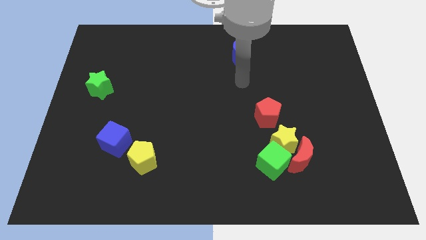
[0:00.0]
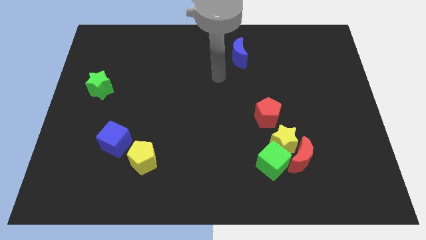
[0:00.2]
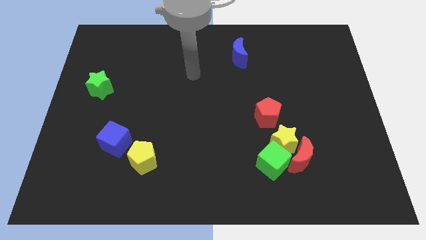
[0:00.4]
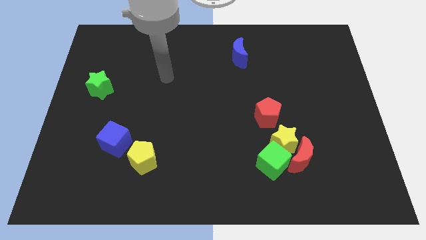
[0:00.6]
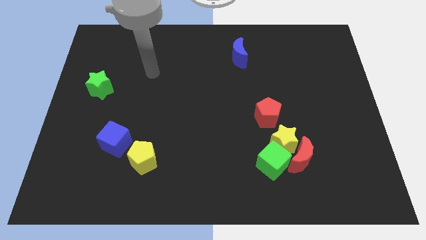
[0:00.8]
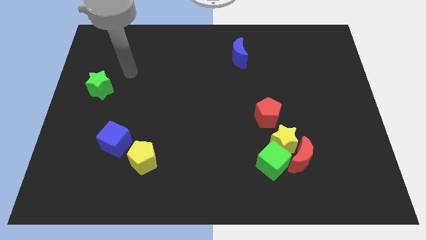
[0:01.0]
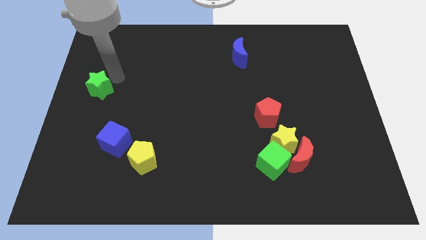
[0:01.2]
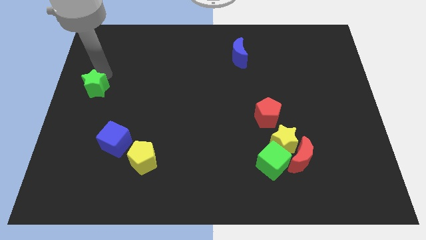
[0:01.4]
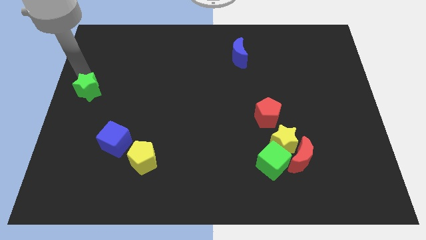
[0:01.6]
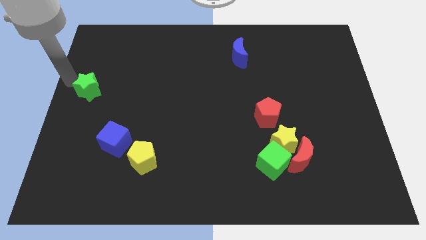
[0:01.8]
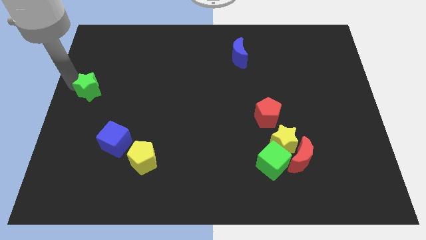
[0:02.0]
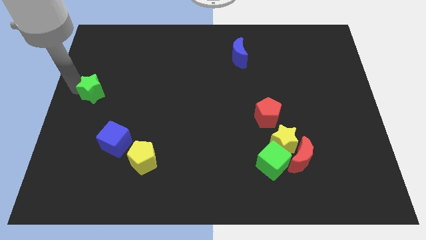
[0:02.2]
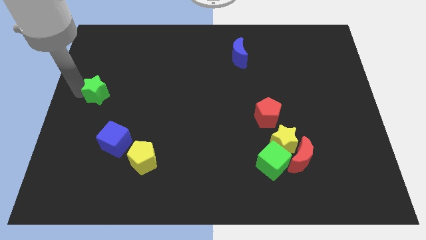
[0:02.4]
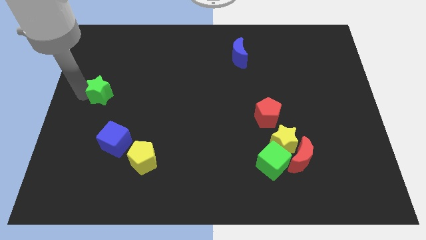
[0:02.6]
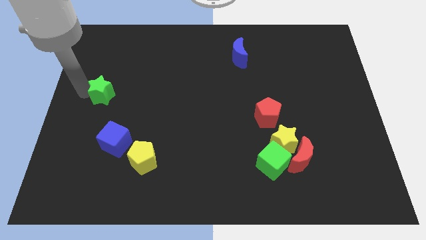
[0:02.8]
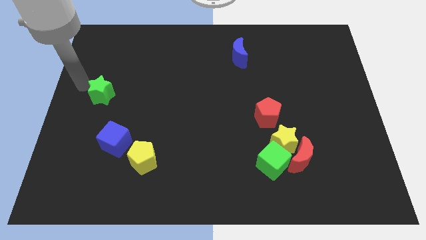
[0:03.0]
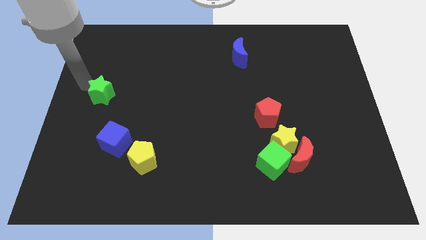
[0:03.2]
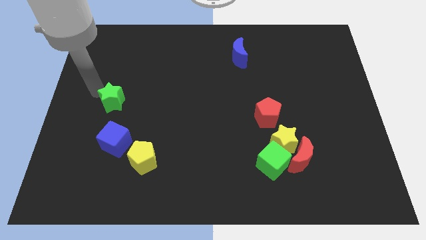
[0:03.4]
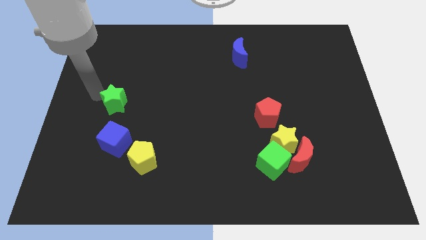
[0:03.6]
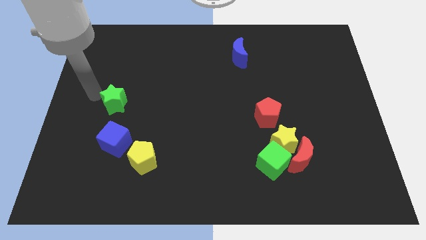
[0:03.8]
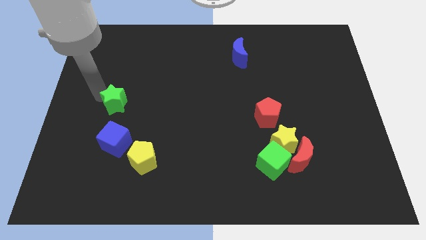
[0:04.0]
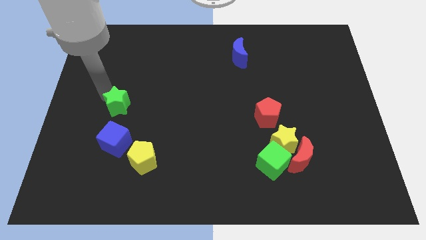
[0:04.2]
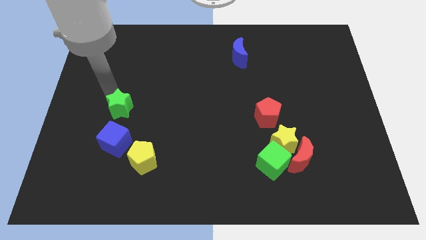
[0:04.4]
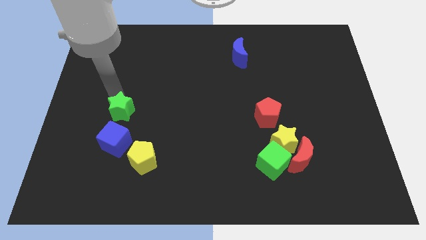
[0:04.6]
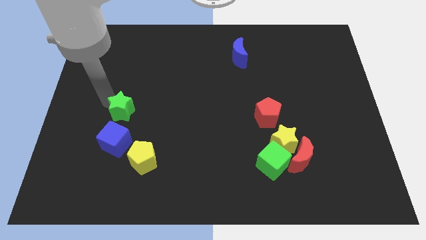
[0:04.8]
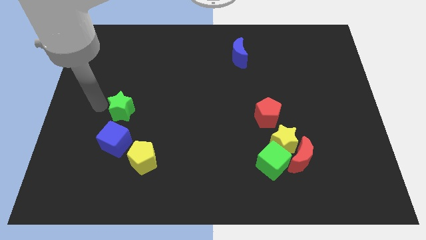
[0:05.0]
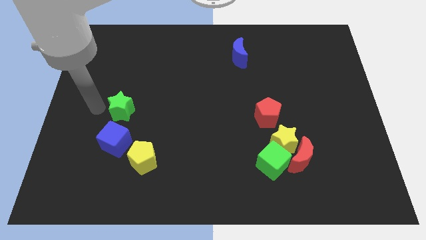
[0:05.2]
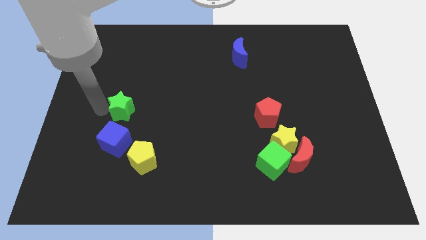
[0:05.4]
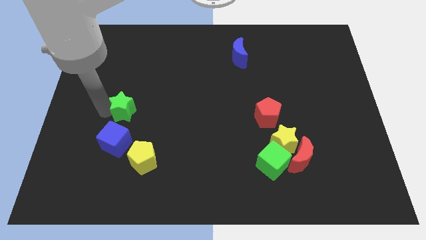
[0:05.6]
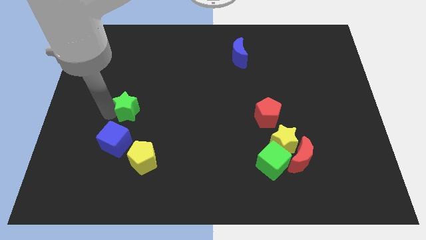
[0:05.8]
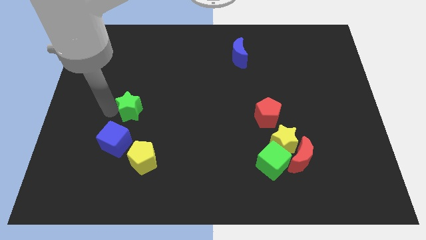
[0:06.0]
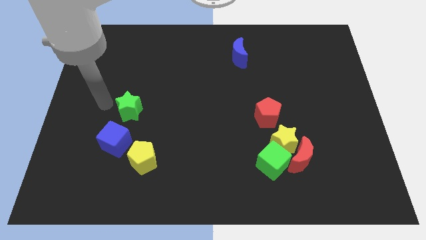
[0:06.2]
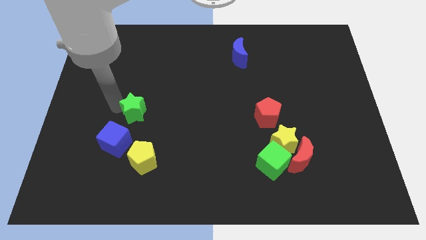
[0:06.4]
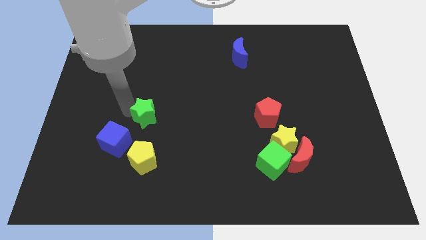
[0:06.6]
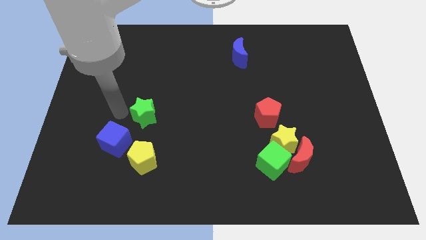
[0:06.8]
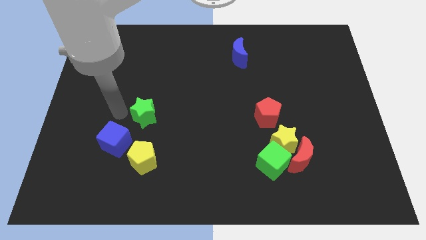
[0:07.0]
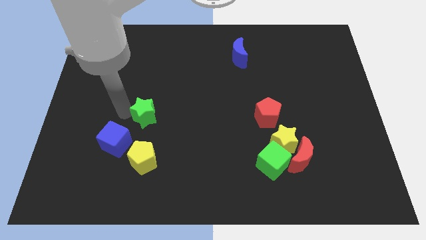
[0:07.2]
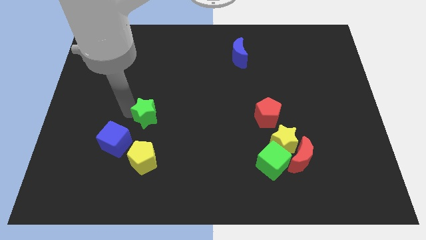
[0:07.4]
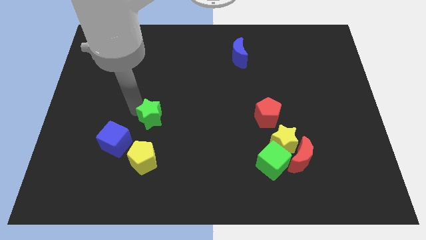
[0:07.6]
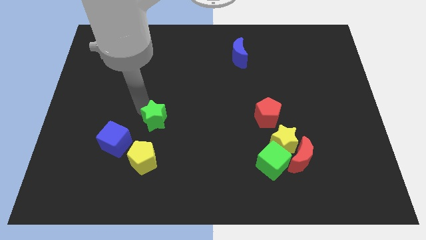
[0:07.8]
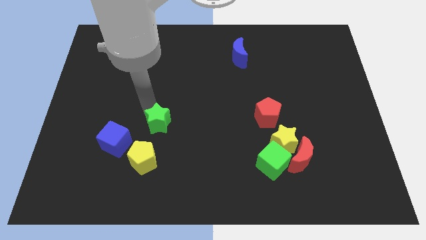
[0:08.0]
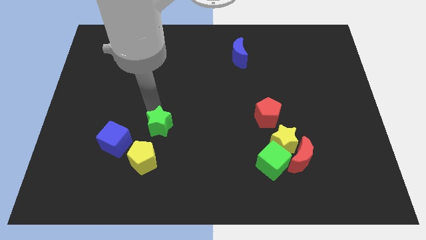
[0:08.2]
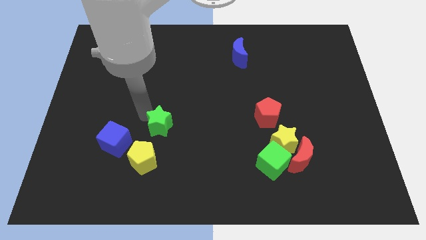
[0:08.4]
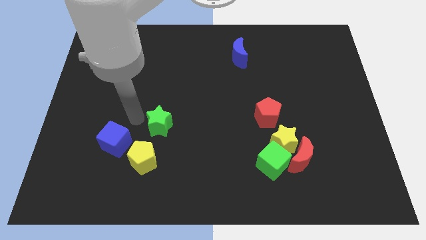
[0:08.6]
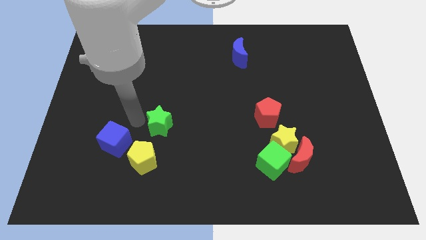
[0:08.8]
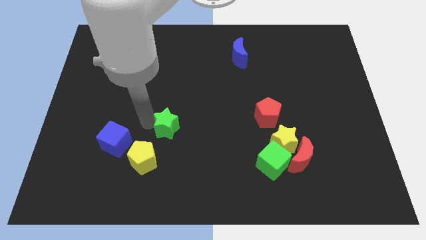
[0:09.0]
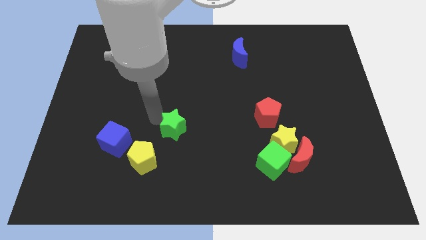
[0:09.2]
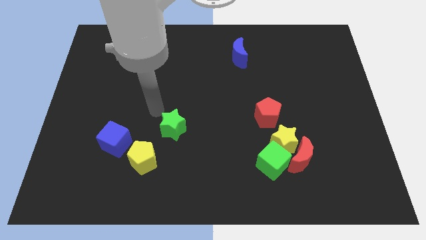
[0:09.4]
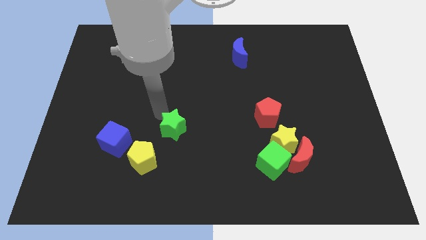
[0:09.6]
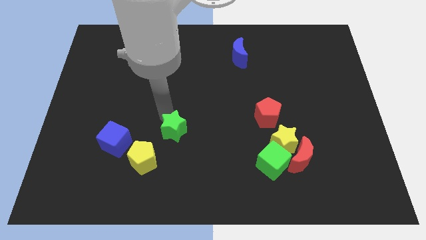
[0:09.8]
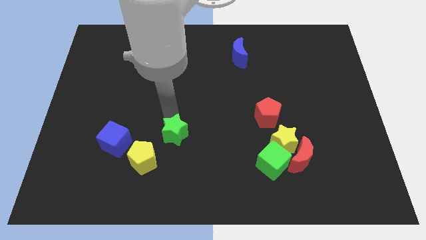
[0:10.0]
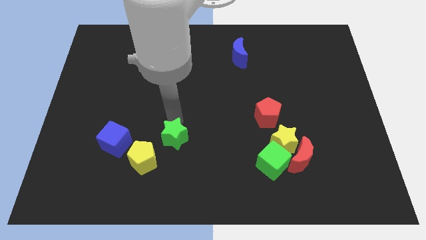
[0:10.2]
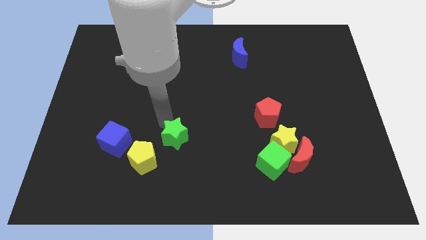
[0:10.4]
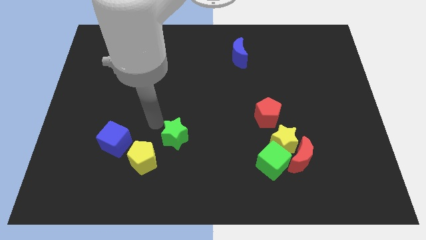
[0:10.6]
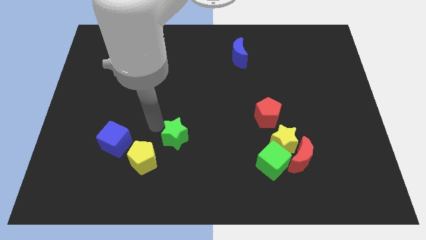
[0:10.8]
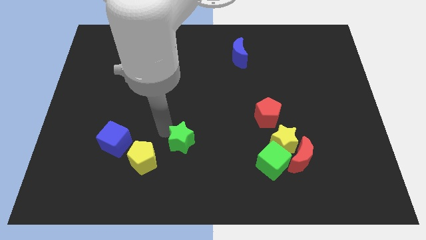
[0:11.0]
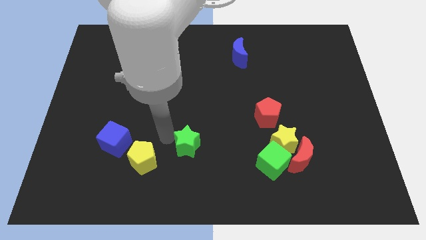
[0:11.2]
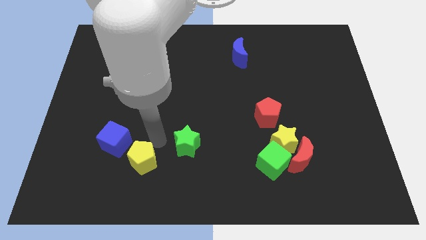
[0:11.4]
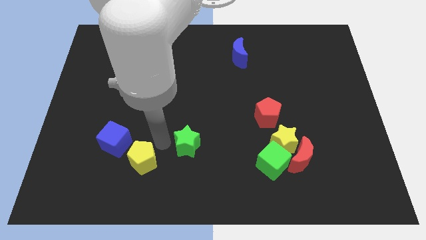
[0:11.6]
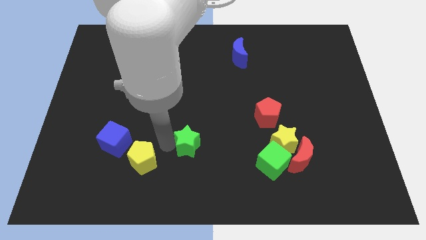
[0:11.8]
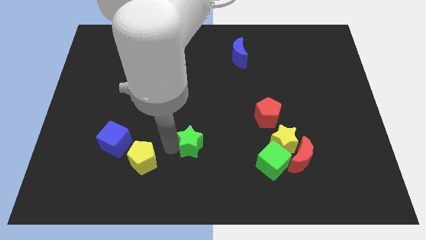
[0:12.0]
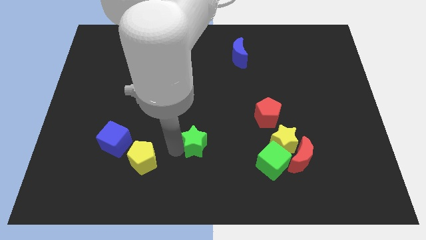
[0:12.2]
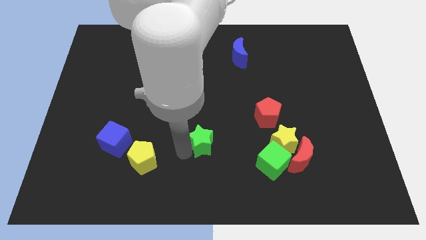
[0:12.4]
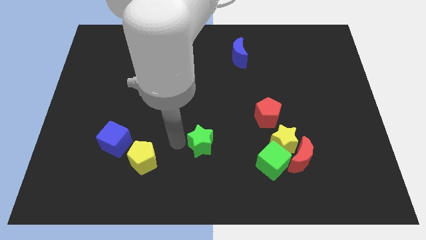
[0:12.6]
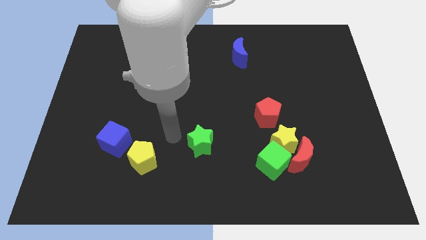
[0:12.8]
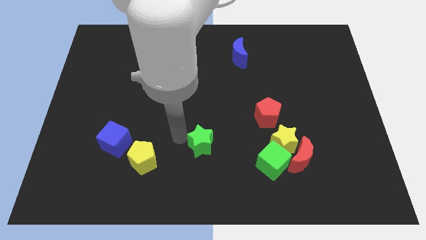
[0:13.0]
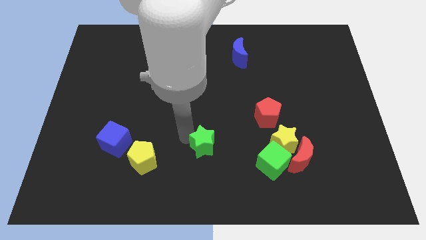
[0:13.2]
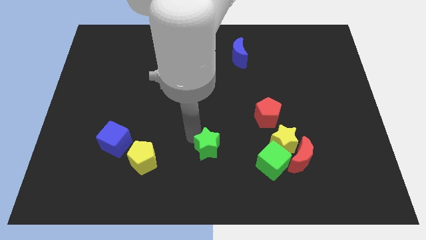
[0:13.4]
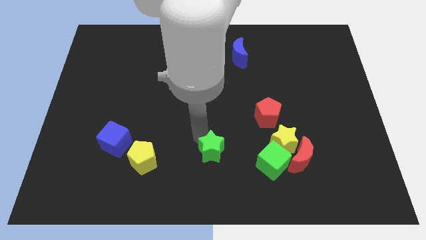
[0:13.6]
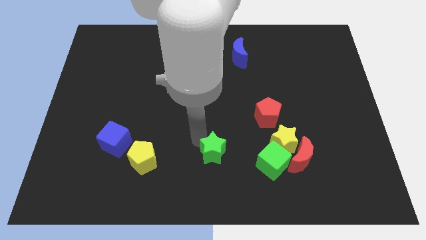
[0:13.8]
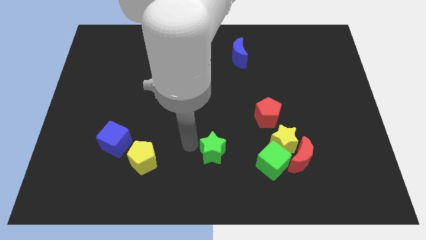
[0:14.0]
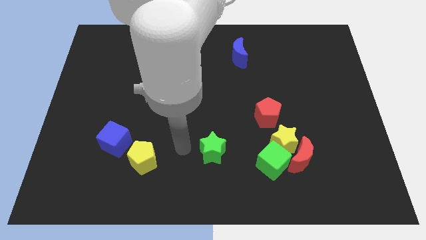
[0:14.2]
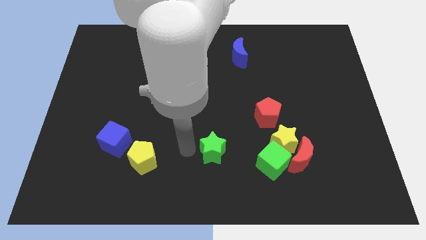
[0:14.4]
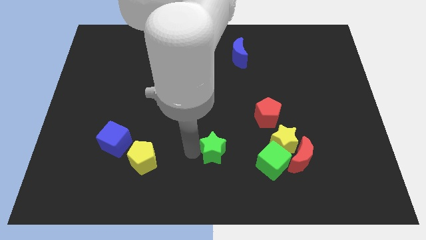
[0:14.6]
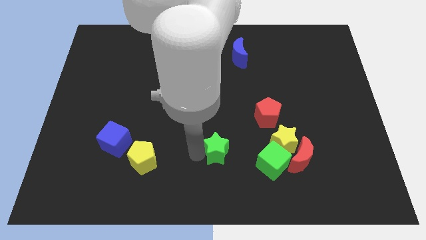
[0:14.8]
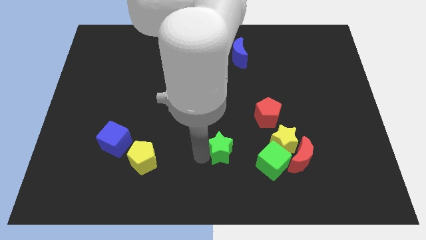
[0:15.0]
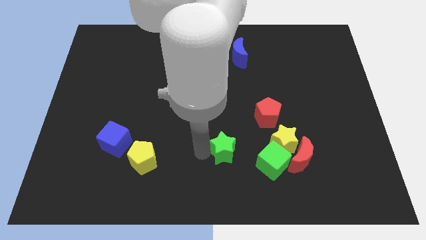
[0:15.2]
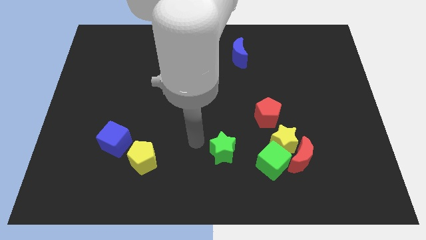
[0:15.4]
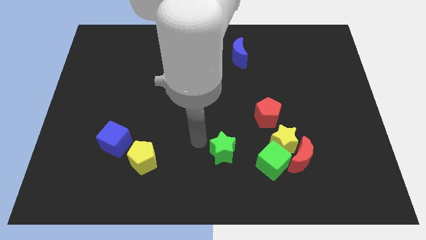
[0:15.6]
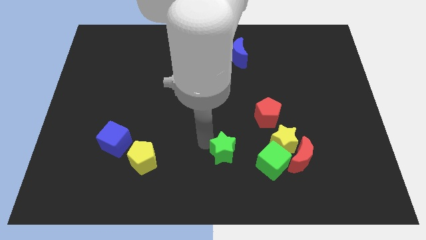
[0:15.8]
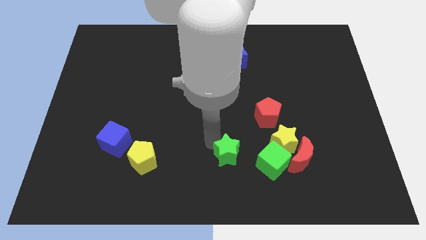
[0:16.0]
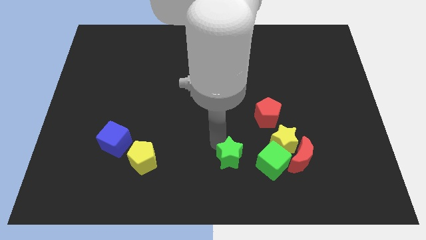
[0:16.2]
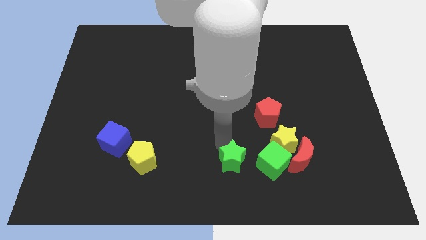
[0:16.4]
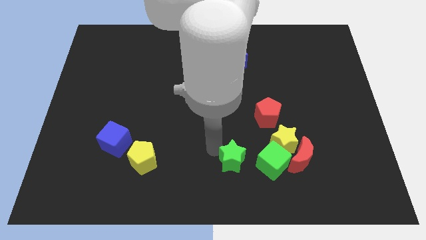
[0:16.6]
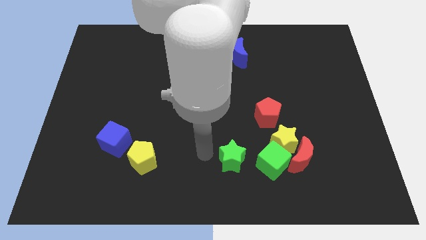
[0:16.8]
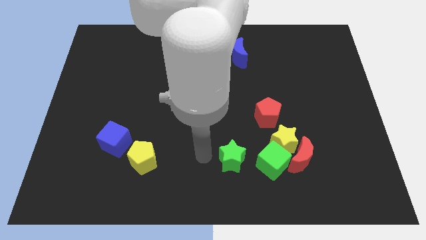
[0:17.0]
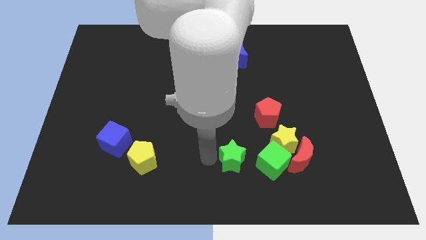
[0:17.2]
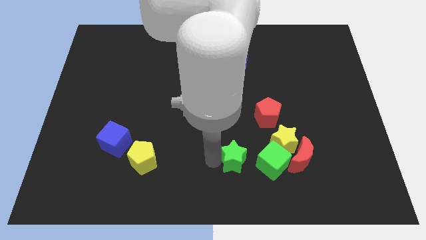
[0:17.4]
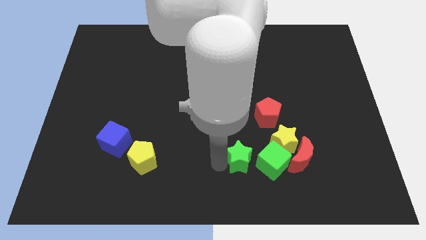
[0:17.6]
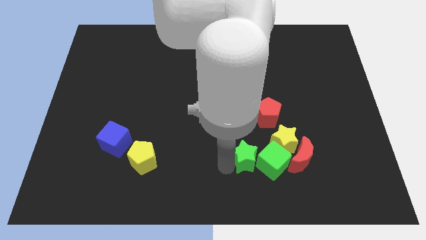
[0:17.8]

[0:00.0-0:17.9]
move the green star close to the green cube
